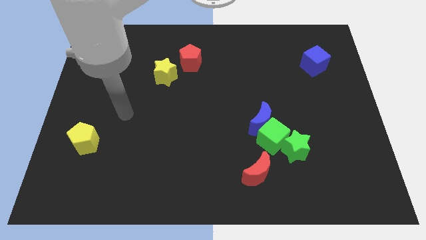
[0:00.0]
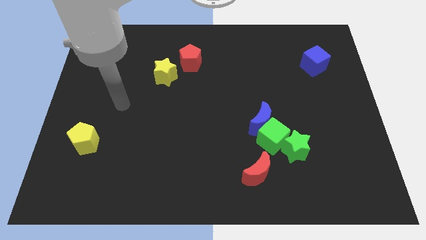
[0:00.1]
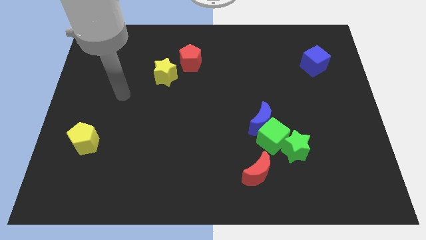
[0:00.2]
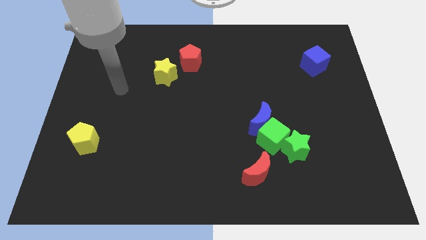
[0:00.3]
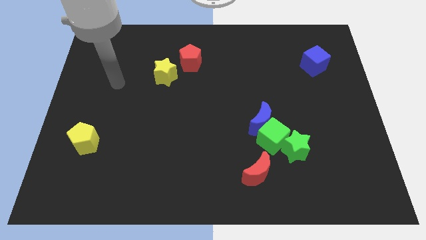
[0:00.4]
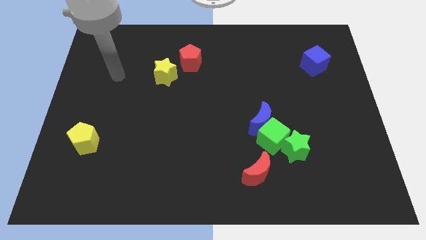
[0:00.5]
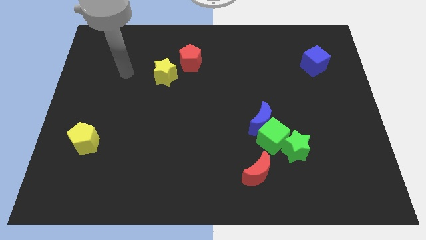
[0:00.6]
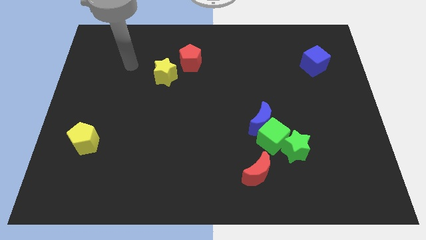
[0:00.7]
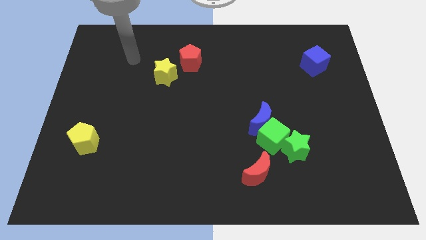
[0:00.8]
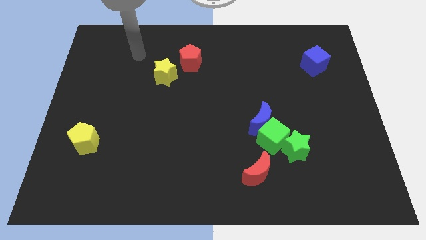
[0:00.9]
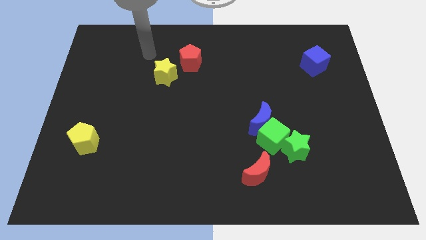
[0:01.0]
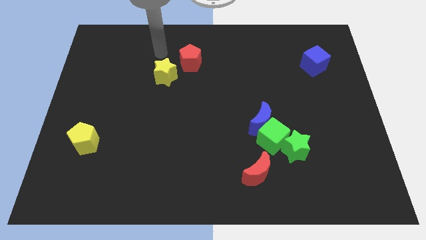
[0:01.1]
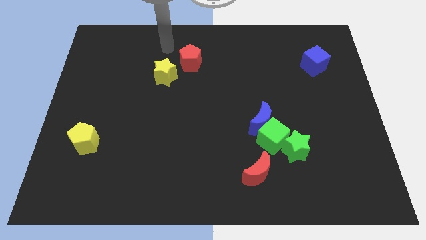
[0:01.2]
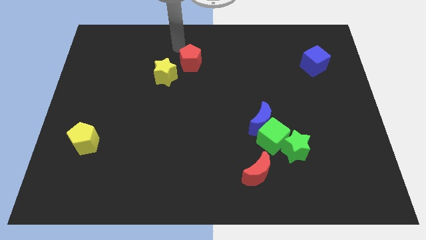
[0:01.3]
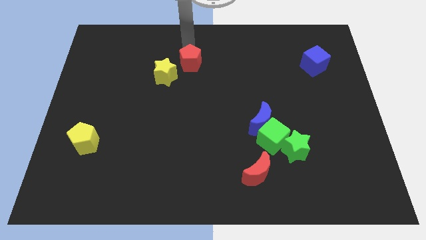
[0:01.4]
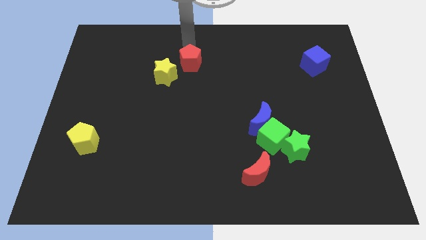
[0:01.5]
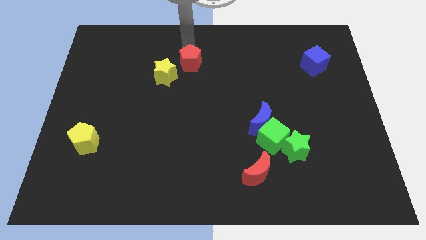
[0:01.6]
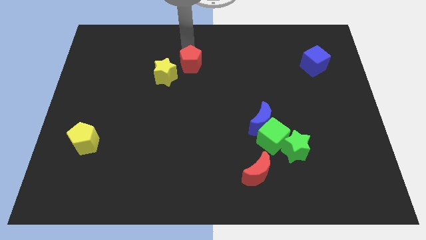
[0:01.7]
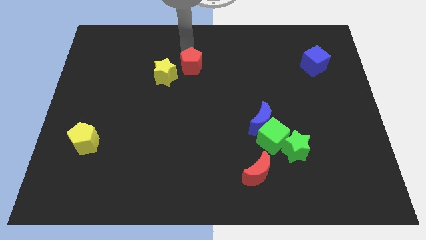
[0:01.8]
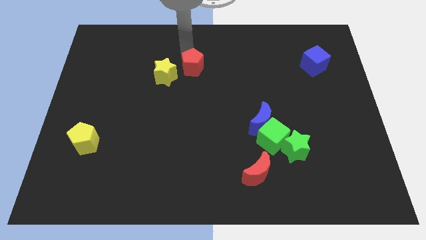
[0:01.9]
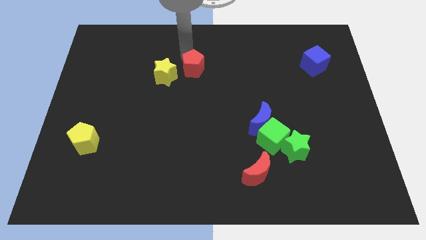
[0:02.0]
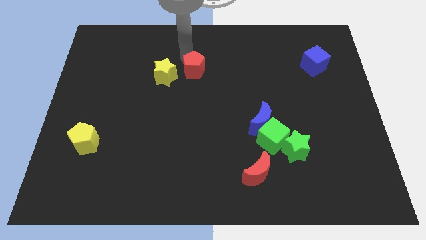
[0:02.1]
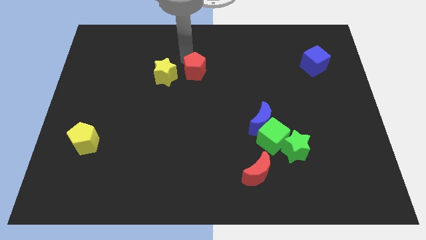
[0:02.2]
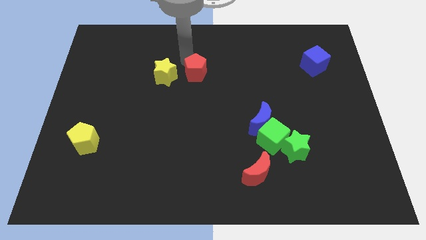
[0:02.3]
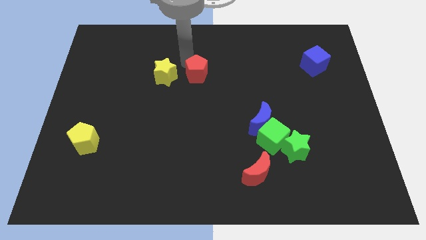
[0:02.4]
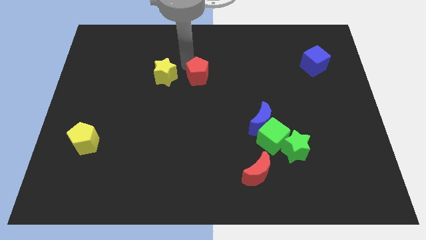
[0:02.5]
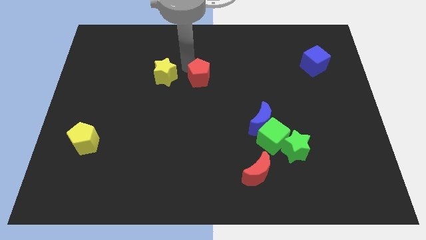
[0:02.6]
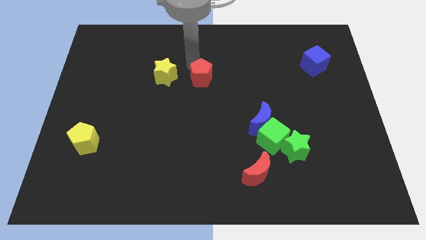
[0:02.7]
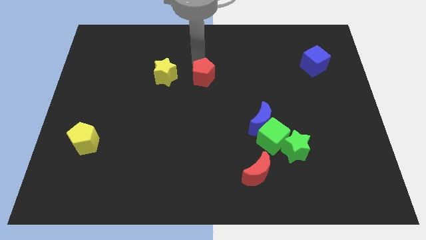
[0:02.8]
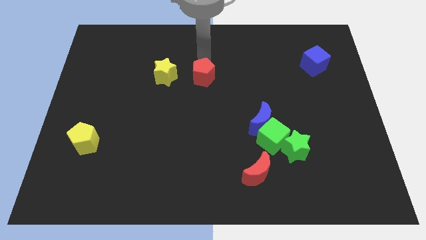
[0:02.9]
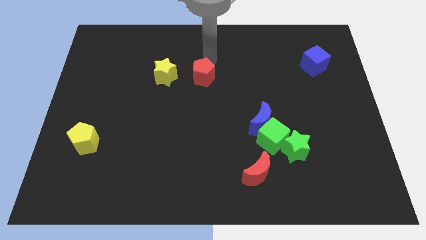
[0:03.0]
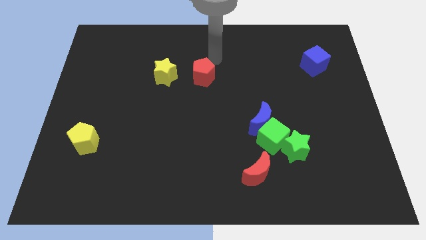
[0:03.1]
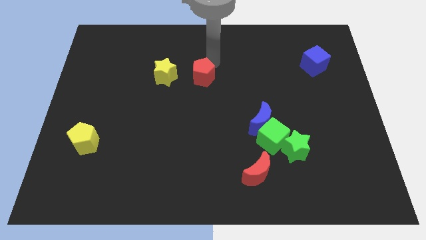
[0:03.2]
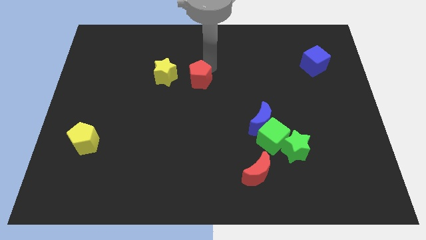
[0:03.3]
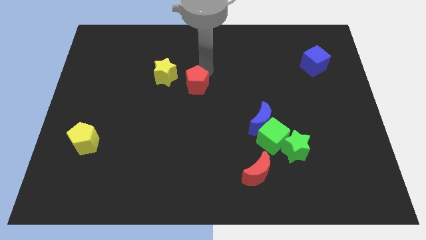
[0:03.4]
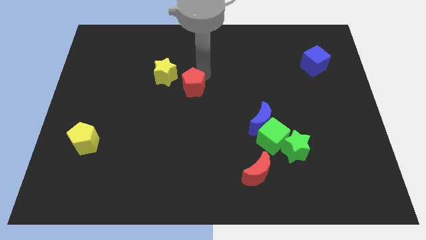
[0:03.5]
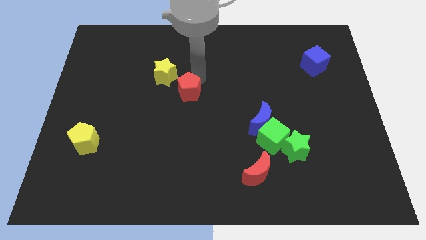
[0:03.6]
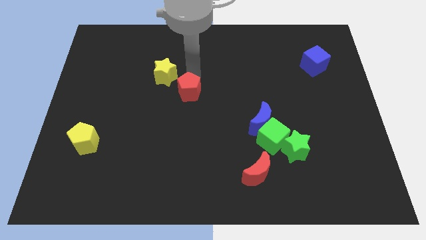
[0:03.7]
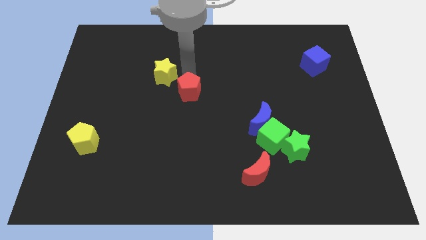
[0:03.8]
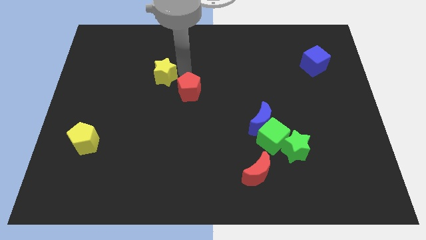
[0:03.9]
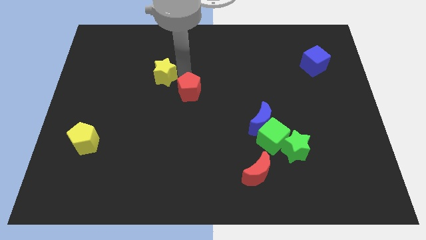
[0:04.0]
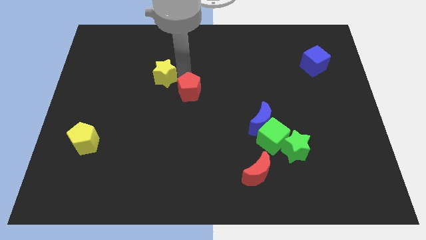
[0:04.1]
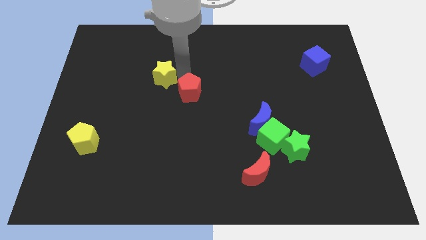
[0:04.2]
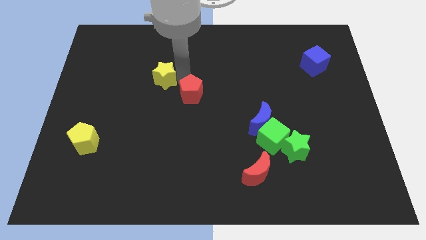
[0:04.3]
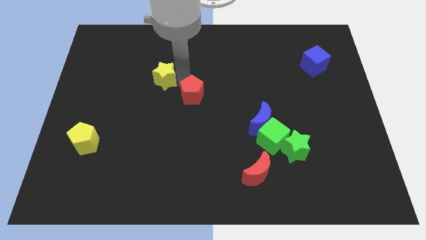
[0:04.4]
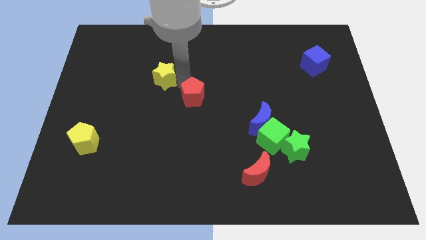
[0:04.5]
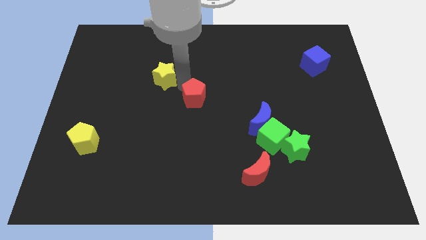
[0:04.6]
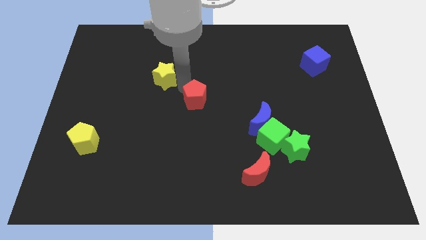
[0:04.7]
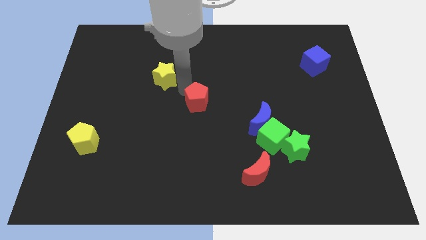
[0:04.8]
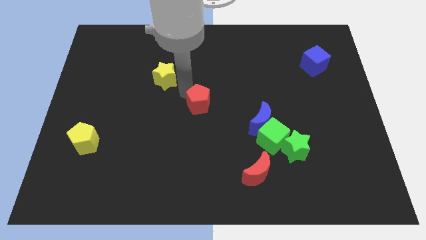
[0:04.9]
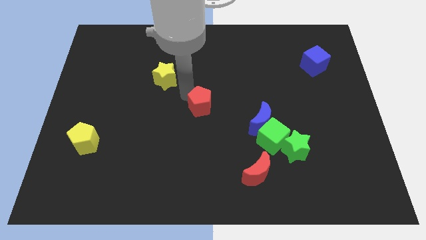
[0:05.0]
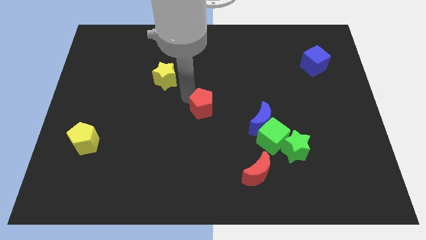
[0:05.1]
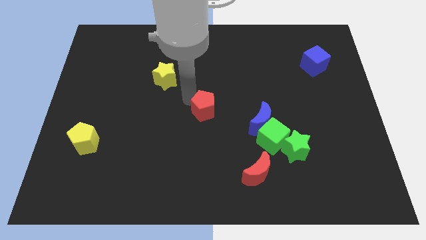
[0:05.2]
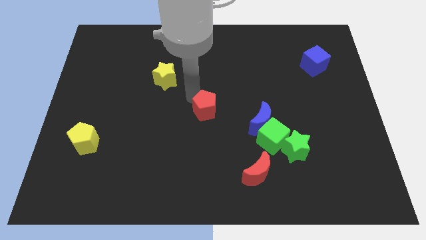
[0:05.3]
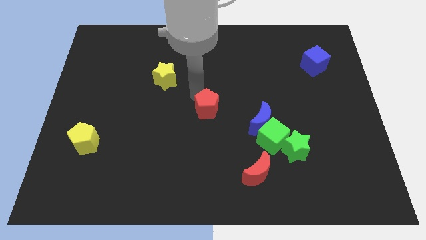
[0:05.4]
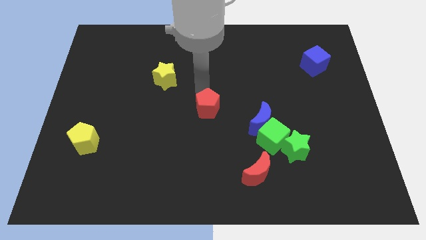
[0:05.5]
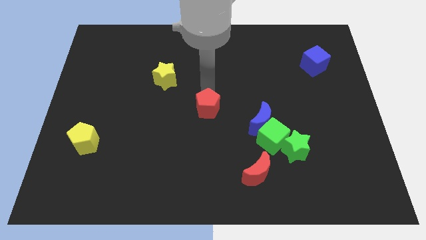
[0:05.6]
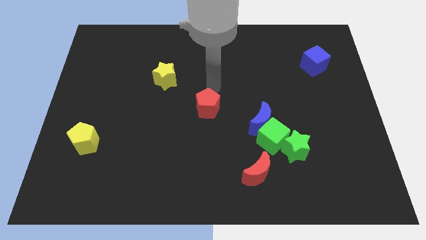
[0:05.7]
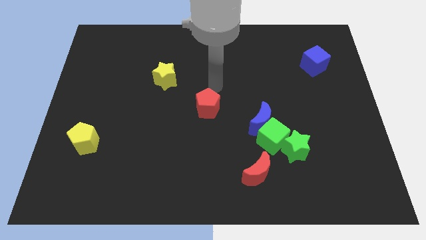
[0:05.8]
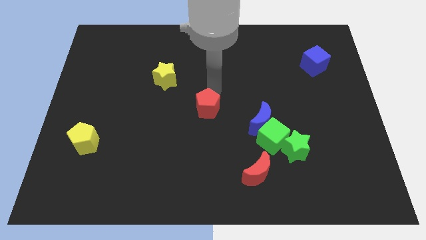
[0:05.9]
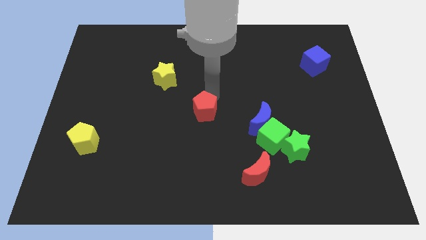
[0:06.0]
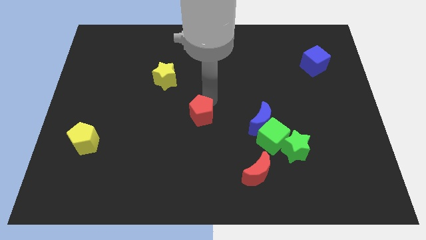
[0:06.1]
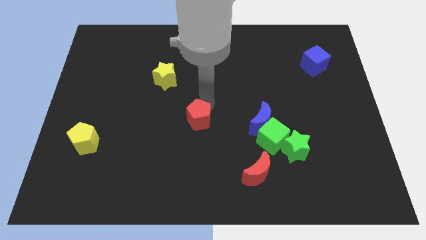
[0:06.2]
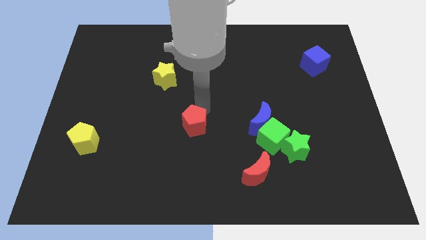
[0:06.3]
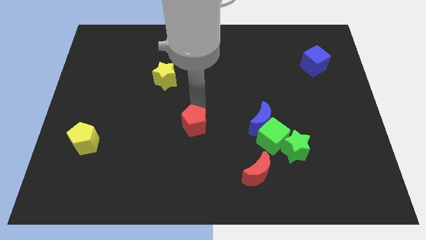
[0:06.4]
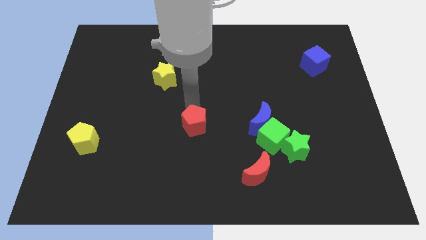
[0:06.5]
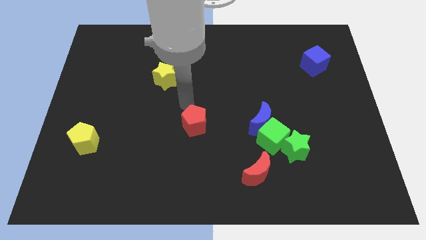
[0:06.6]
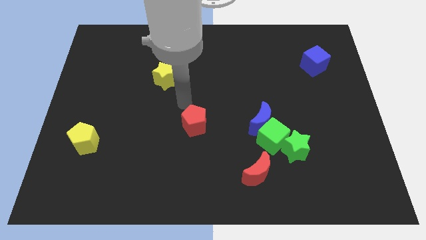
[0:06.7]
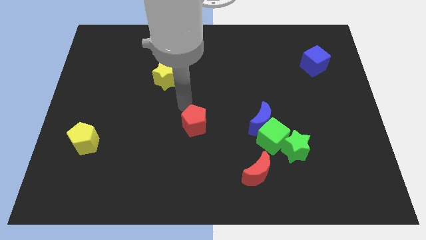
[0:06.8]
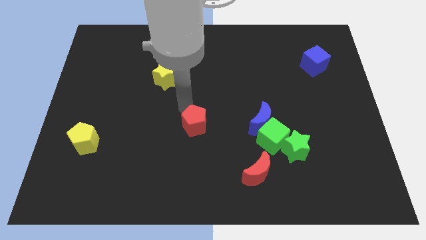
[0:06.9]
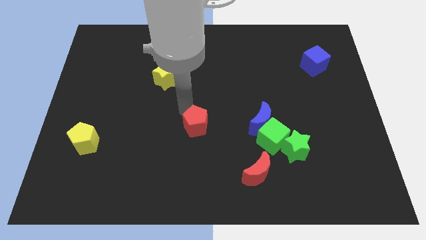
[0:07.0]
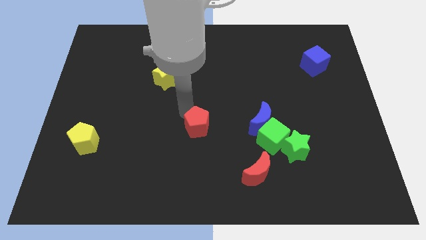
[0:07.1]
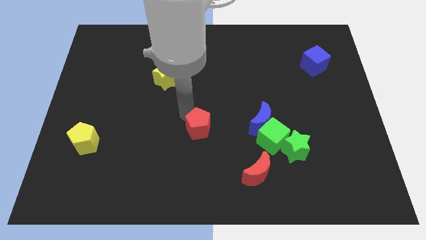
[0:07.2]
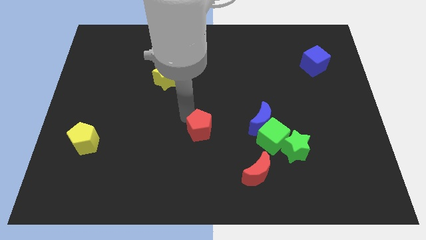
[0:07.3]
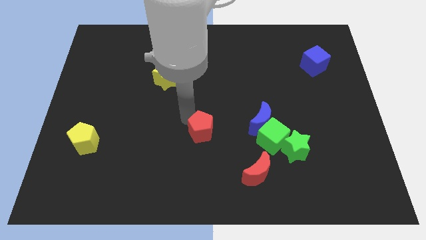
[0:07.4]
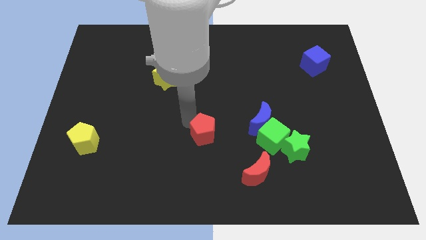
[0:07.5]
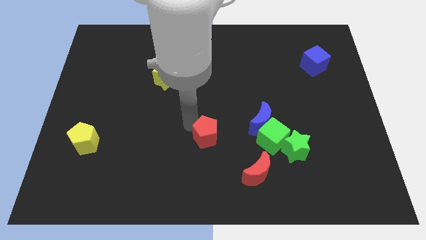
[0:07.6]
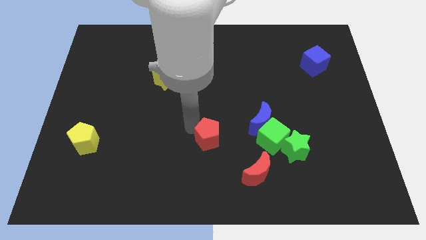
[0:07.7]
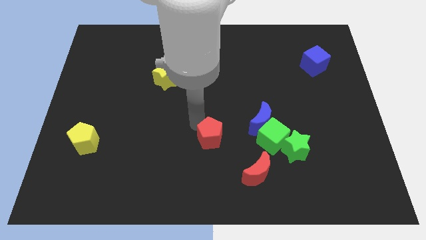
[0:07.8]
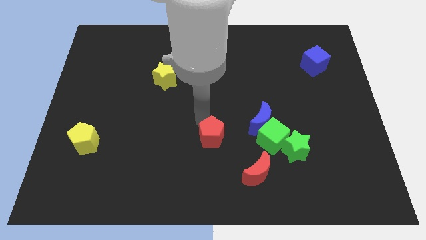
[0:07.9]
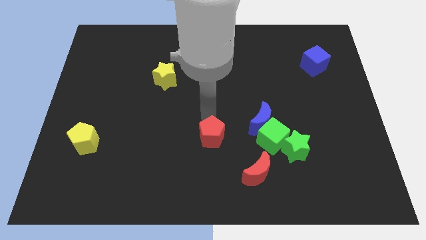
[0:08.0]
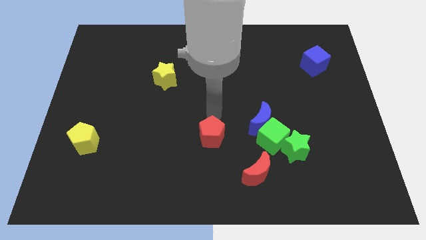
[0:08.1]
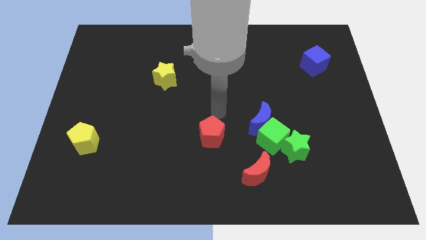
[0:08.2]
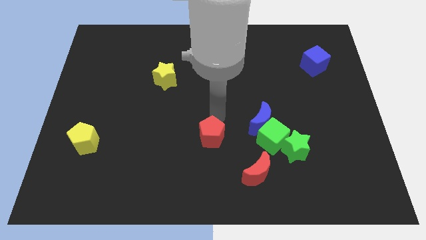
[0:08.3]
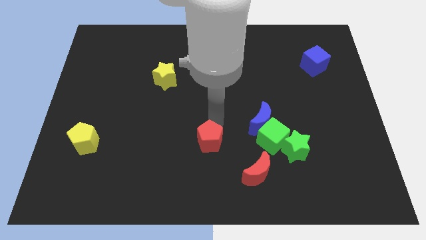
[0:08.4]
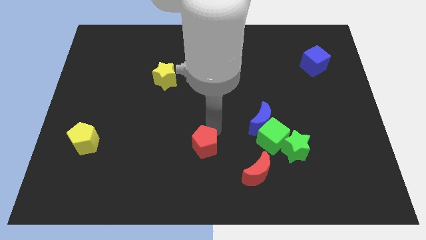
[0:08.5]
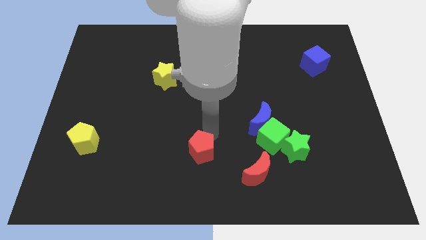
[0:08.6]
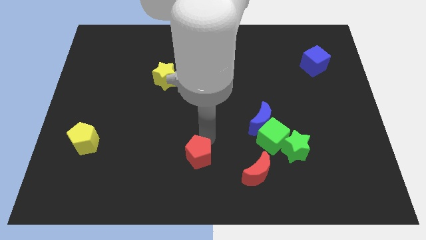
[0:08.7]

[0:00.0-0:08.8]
push the red pentagon to the bottom
